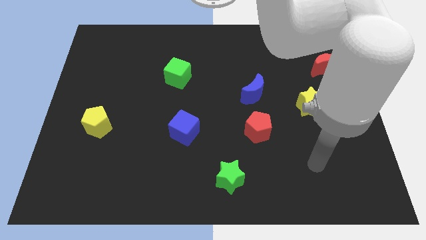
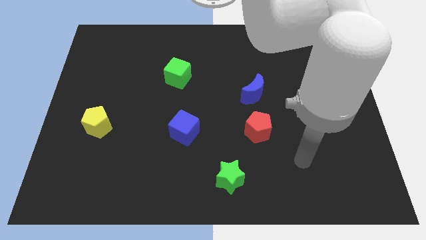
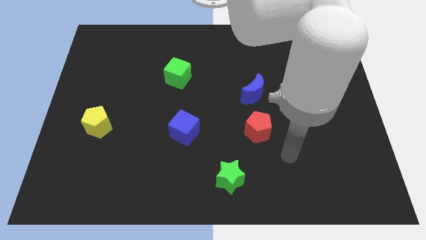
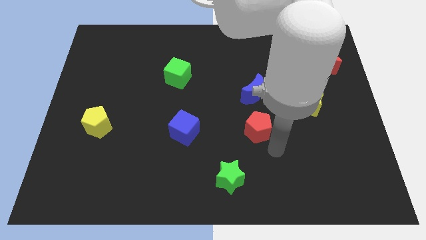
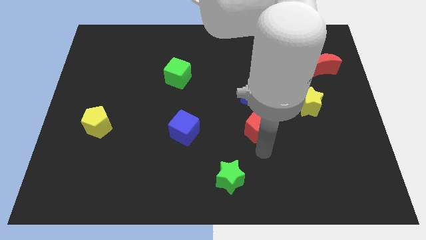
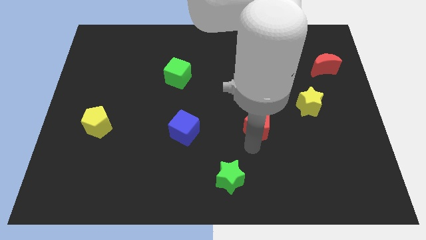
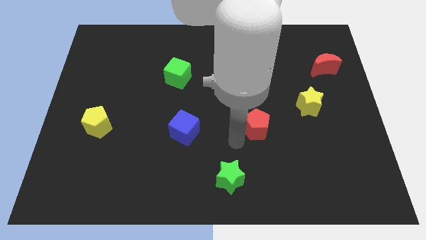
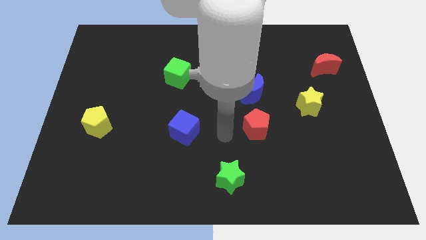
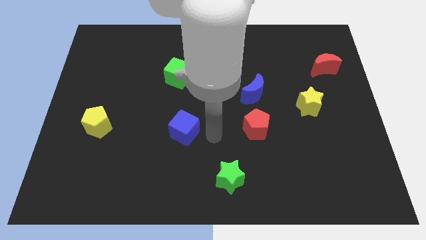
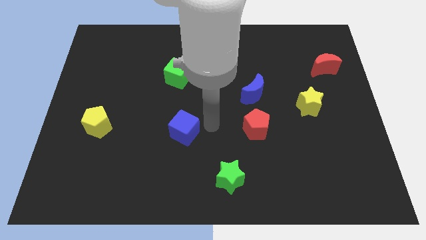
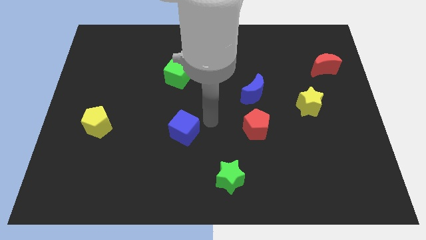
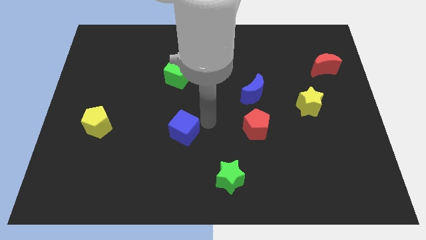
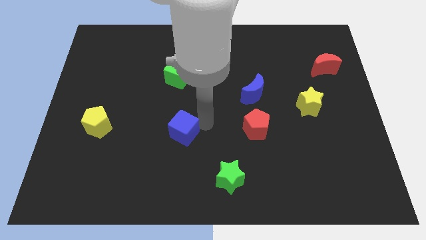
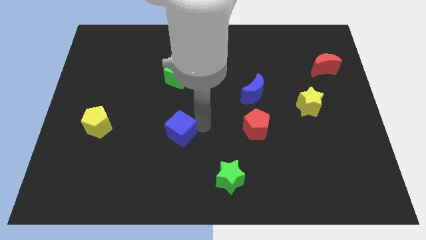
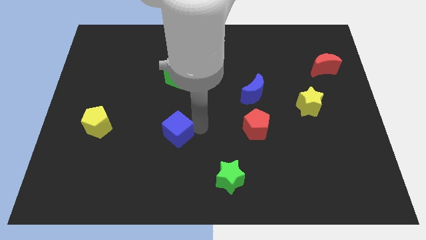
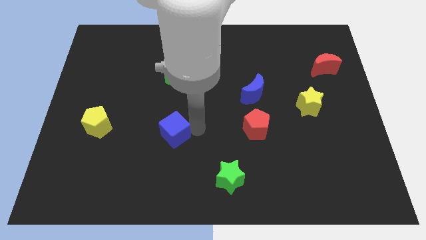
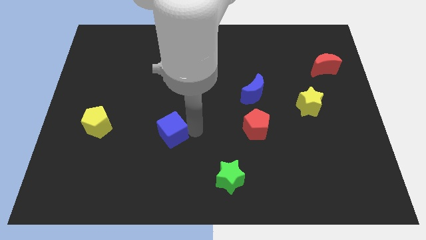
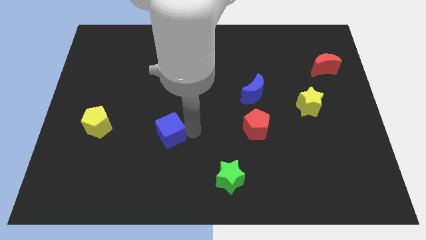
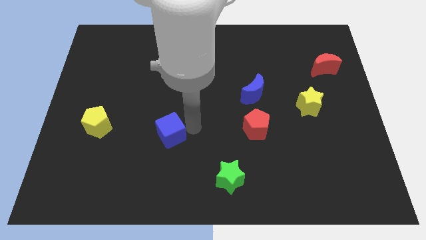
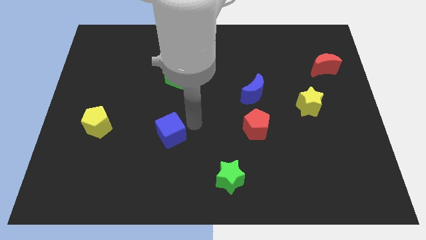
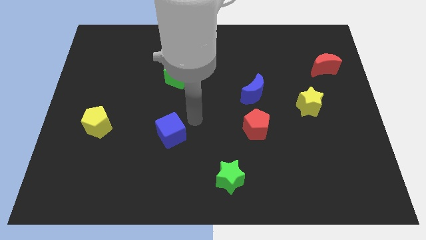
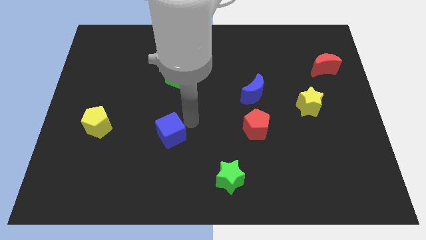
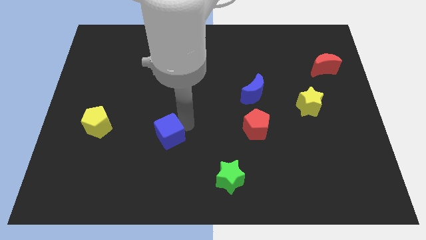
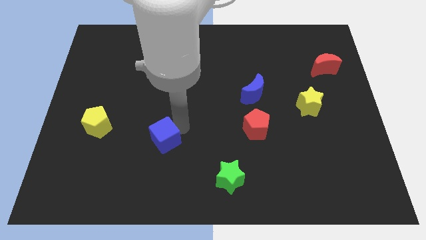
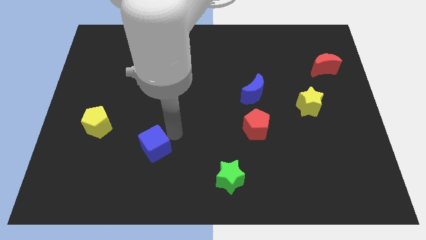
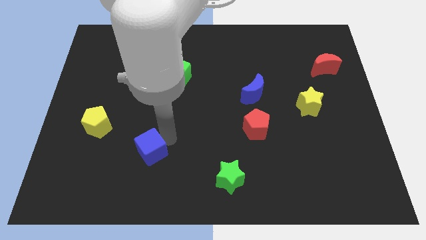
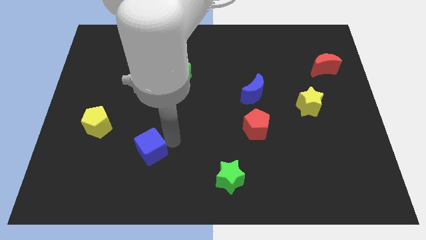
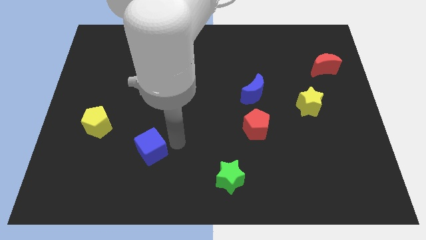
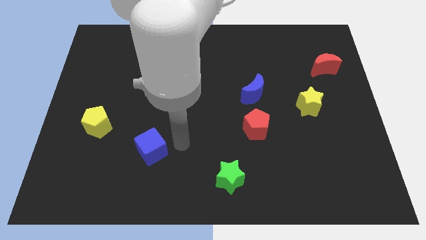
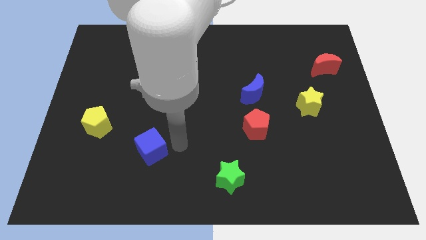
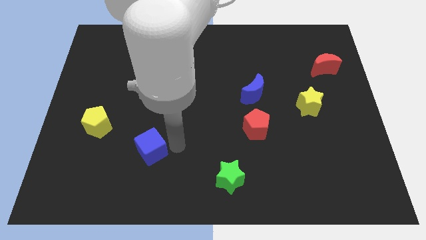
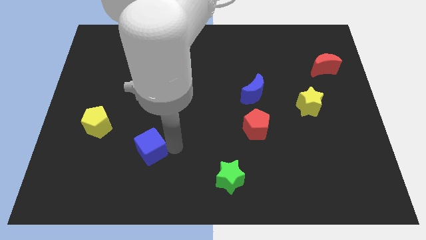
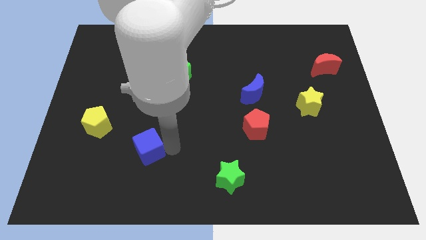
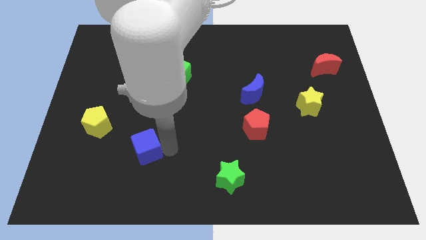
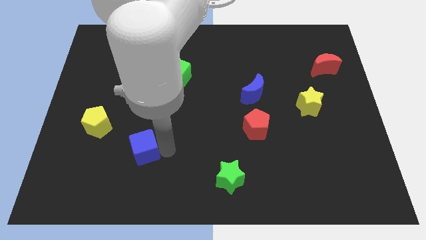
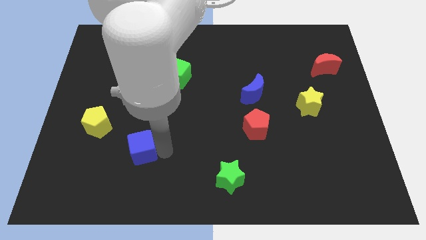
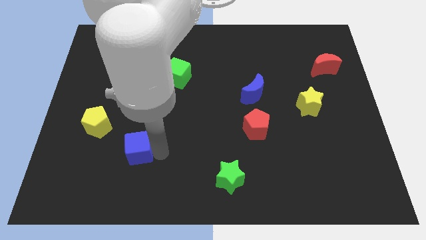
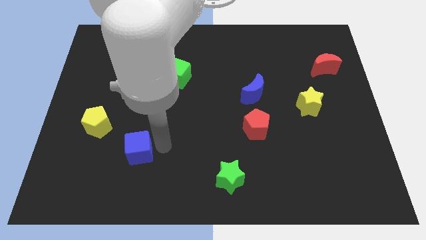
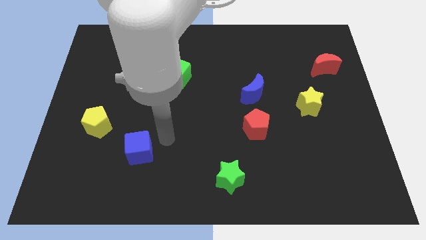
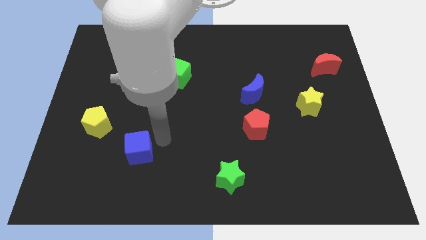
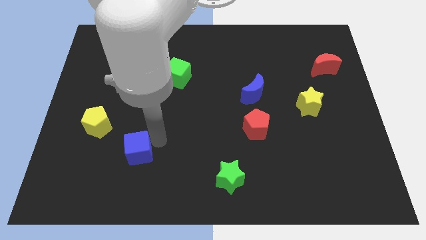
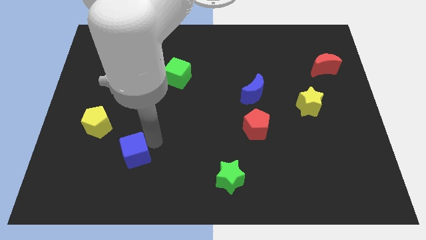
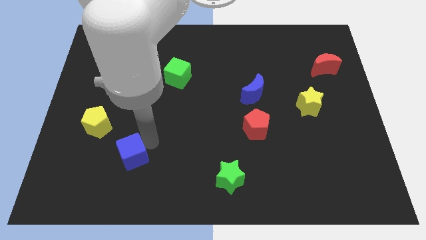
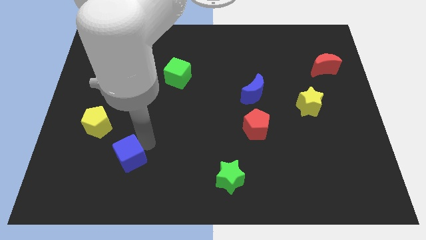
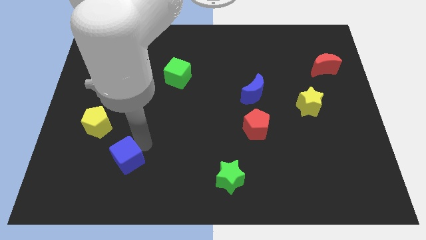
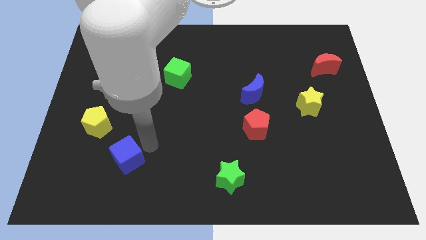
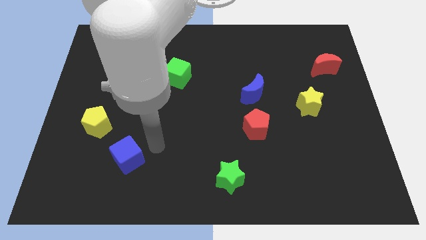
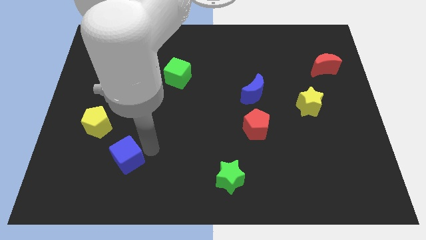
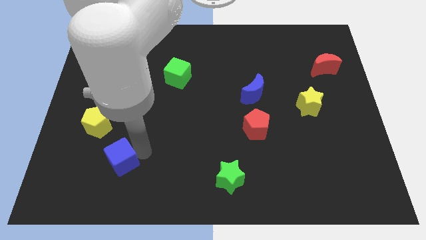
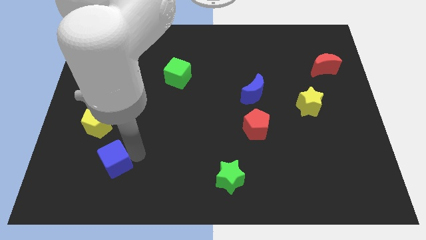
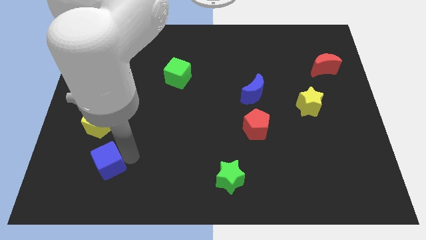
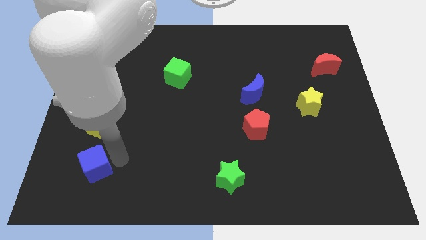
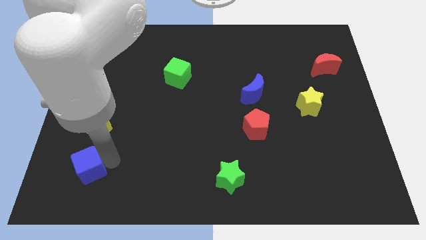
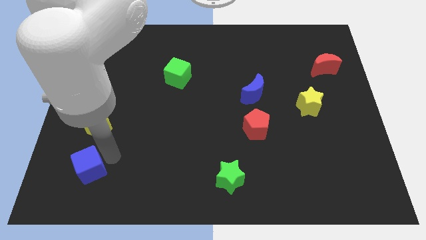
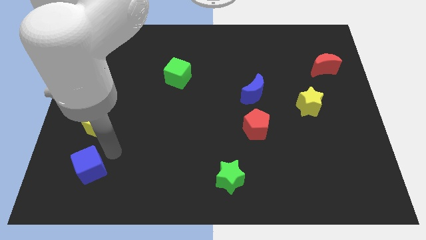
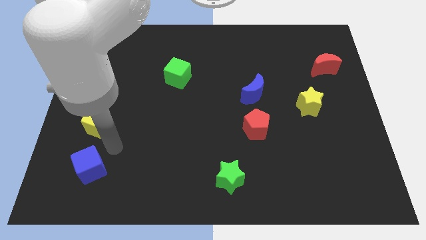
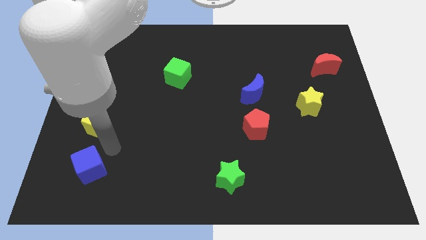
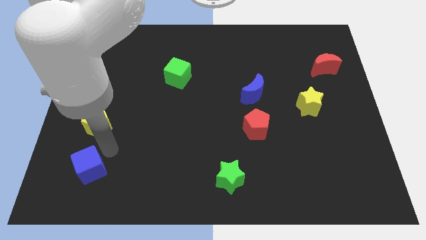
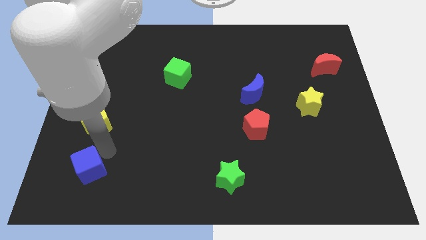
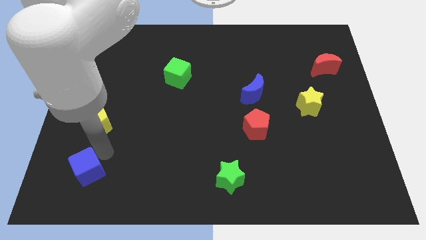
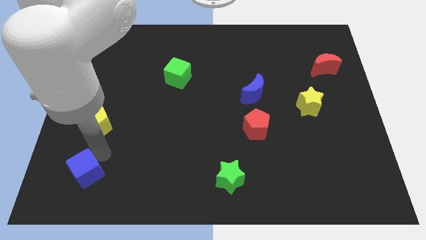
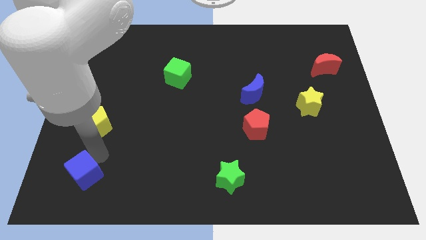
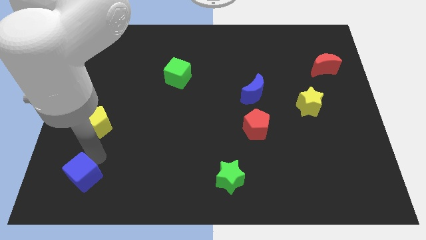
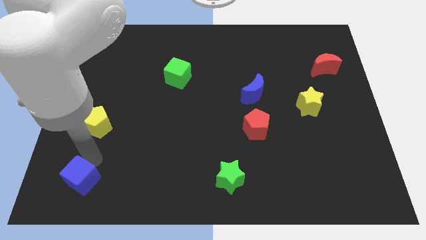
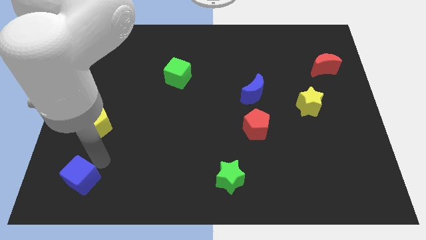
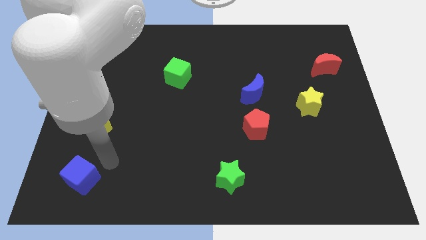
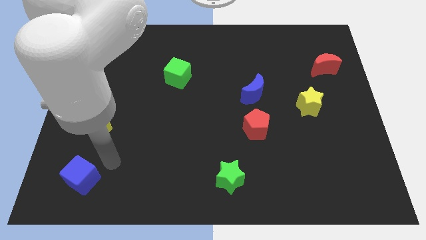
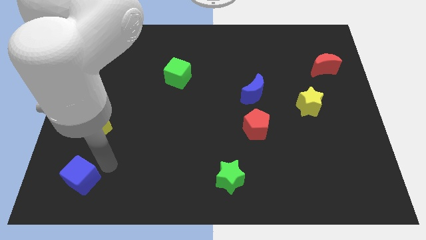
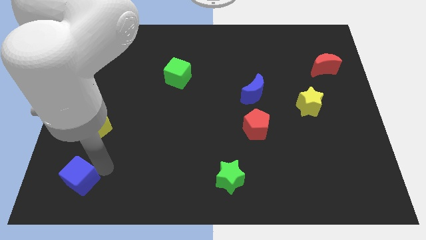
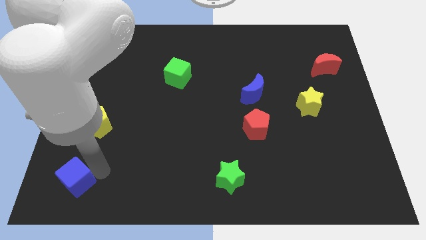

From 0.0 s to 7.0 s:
push the blue cube to the bottom left of the board
